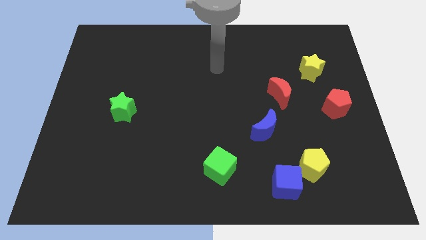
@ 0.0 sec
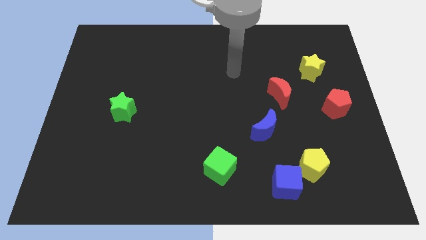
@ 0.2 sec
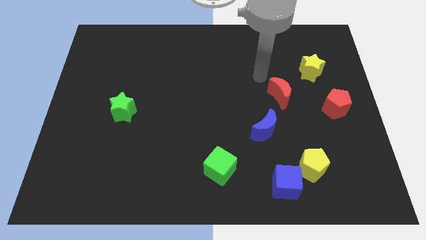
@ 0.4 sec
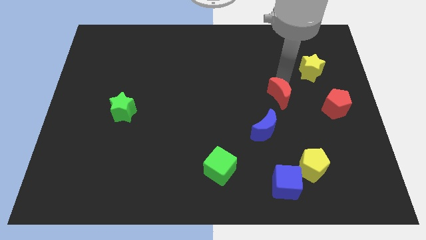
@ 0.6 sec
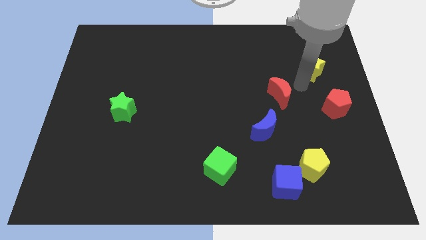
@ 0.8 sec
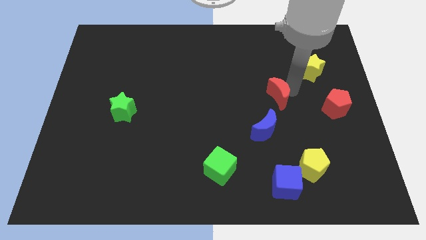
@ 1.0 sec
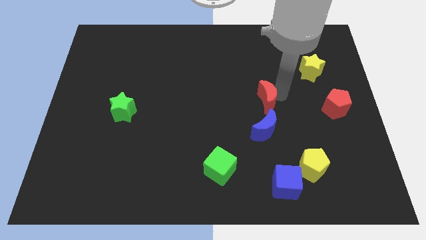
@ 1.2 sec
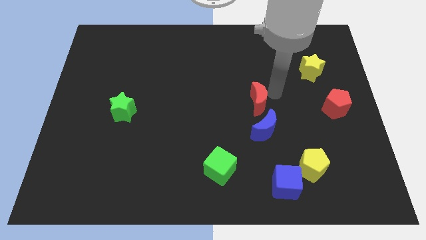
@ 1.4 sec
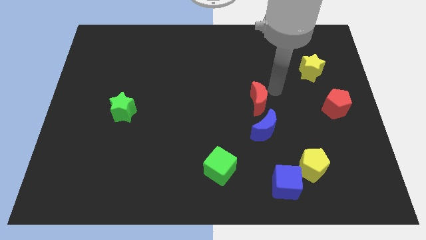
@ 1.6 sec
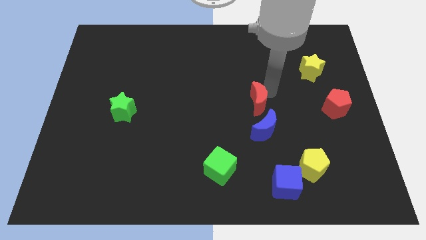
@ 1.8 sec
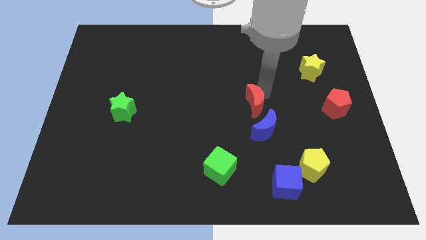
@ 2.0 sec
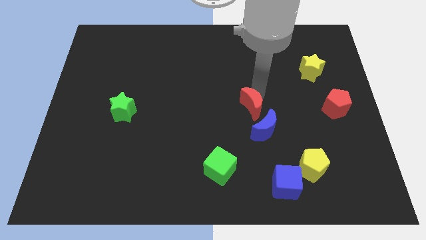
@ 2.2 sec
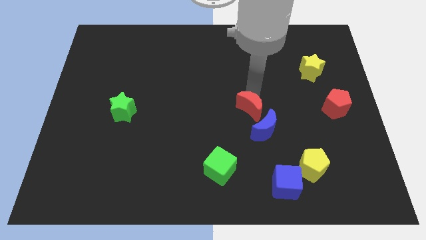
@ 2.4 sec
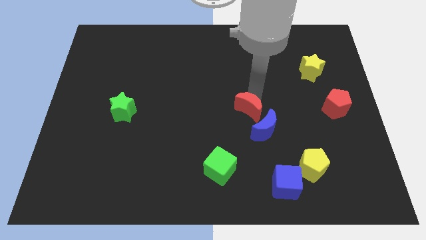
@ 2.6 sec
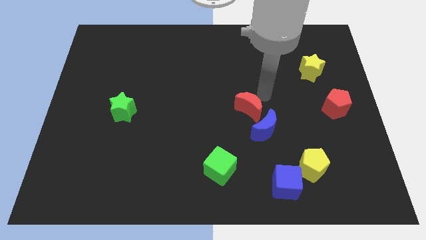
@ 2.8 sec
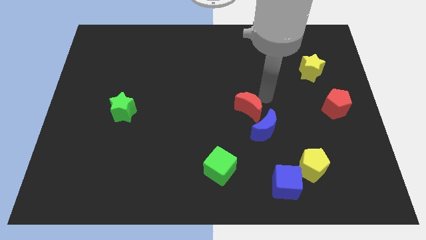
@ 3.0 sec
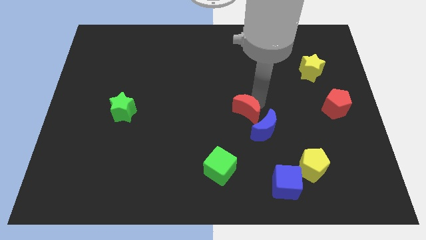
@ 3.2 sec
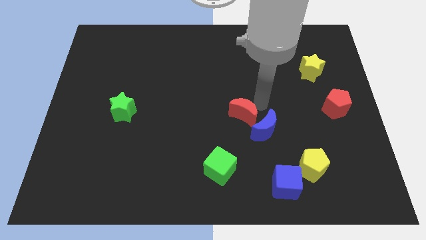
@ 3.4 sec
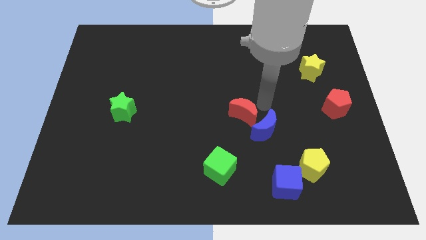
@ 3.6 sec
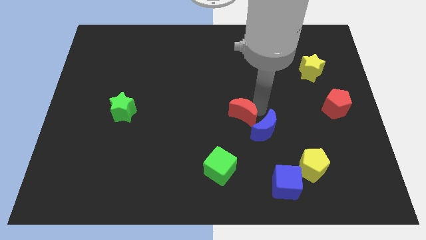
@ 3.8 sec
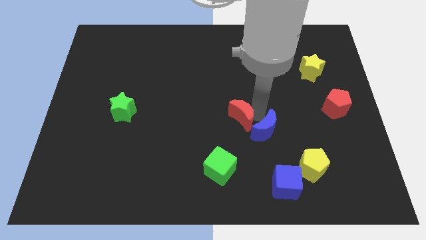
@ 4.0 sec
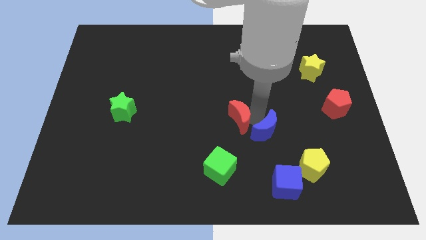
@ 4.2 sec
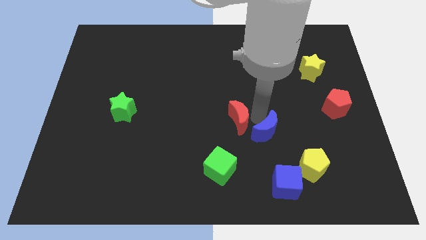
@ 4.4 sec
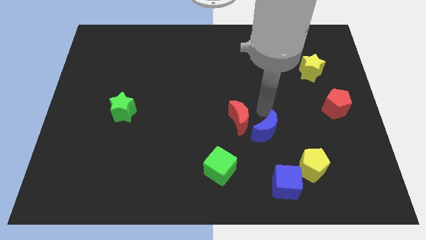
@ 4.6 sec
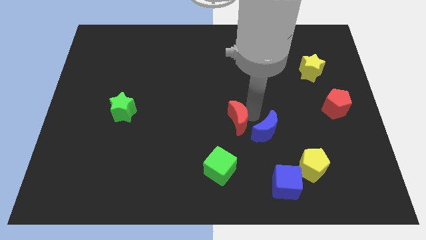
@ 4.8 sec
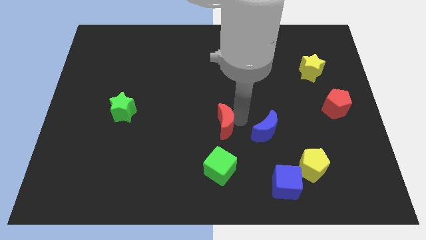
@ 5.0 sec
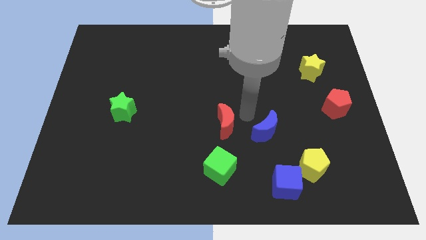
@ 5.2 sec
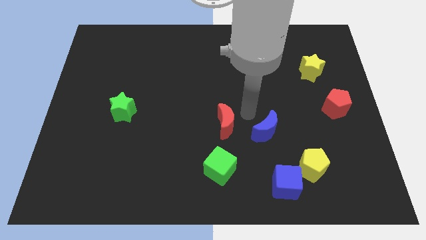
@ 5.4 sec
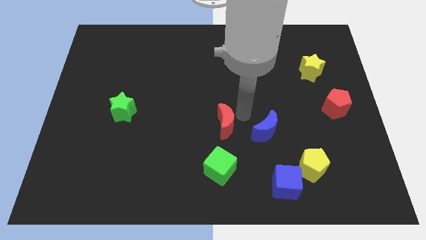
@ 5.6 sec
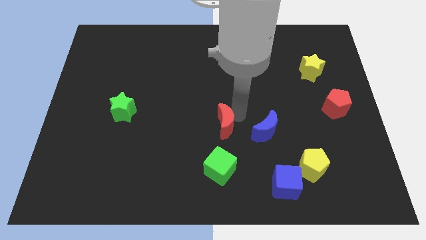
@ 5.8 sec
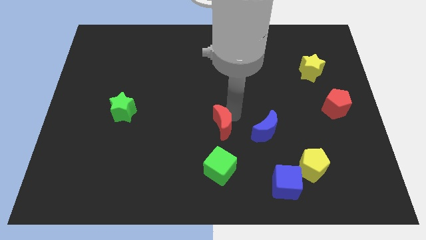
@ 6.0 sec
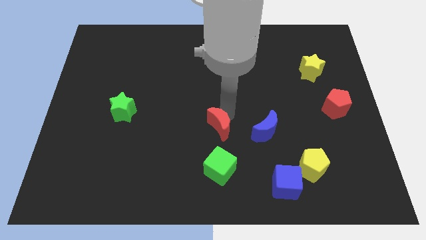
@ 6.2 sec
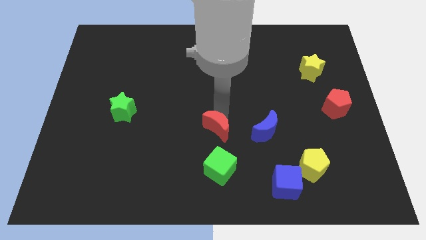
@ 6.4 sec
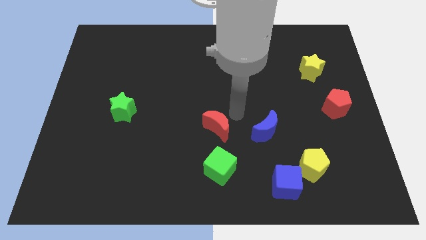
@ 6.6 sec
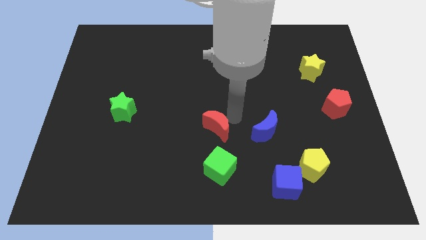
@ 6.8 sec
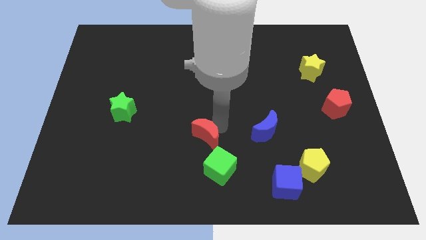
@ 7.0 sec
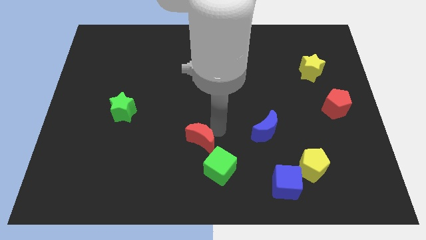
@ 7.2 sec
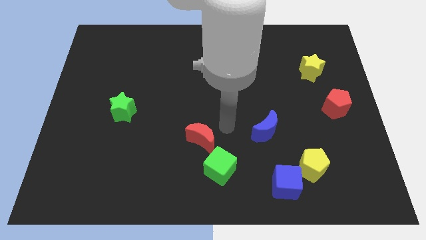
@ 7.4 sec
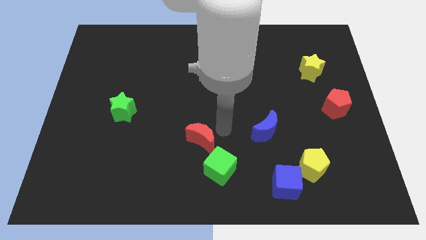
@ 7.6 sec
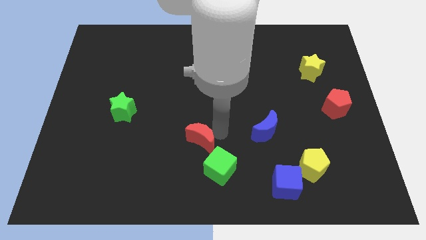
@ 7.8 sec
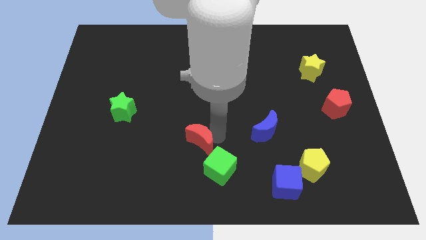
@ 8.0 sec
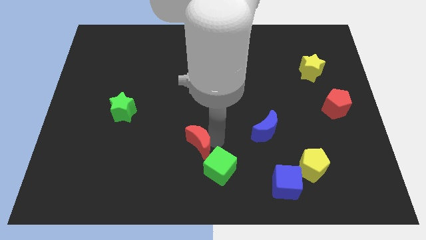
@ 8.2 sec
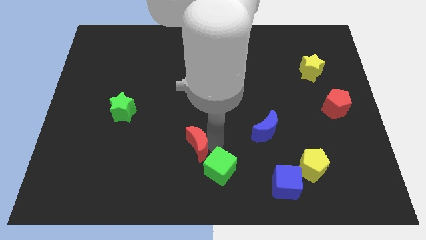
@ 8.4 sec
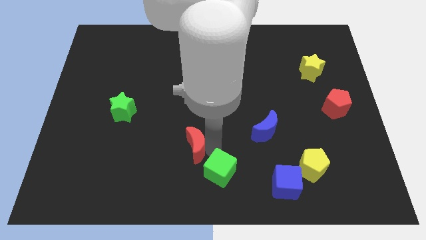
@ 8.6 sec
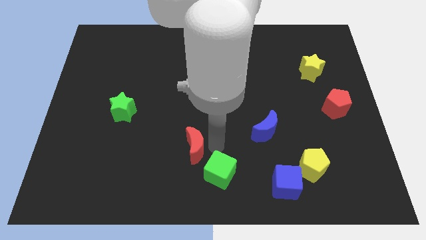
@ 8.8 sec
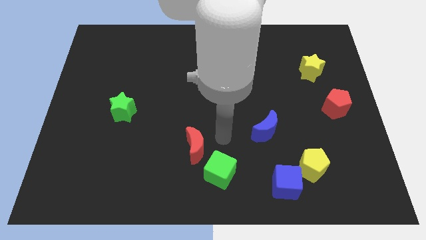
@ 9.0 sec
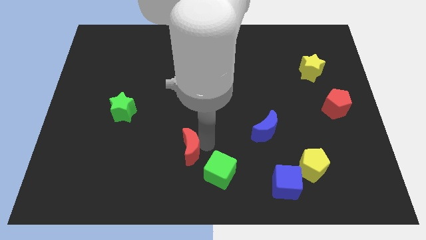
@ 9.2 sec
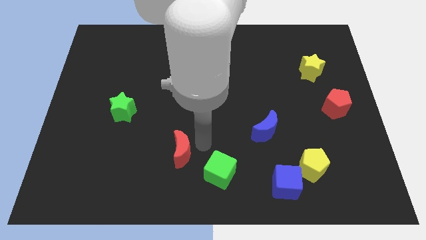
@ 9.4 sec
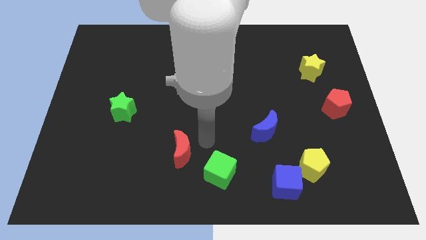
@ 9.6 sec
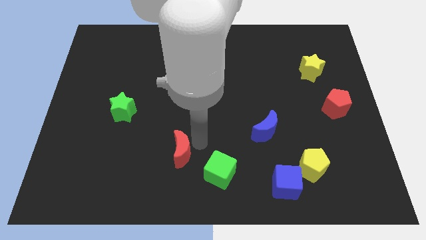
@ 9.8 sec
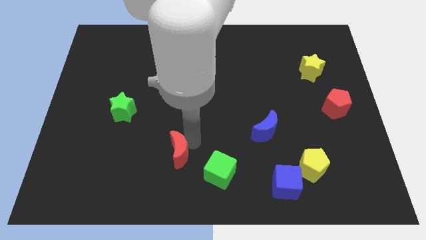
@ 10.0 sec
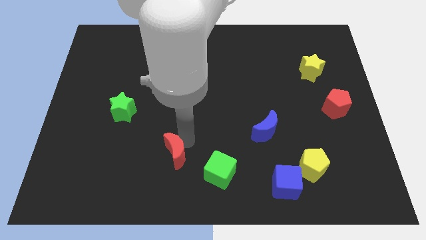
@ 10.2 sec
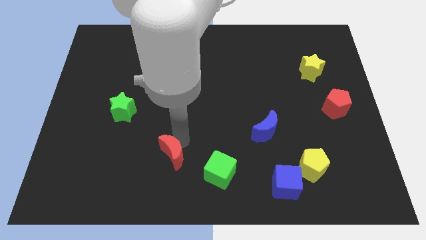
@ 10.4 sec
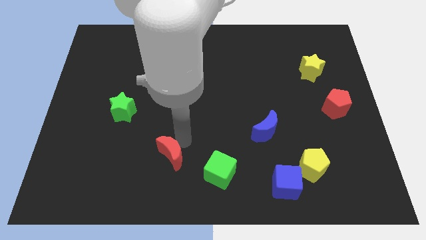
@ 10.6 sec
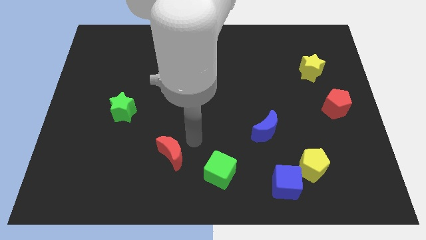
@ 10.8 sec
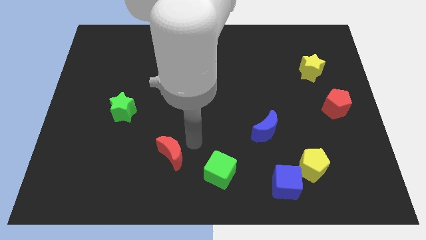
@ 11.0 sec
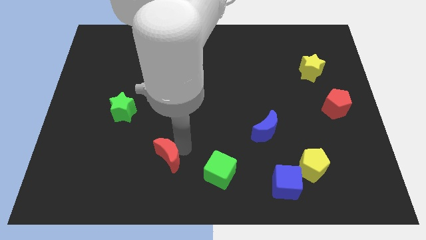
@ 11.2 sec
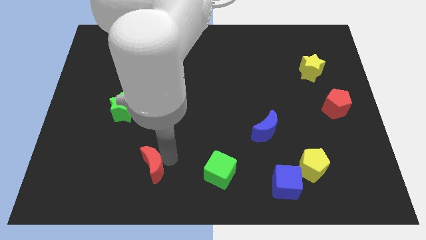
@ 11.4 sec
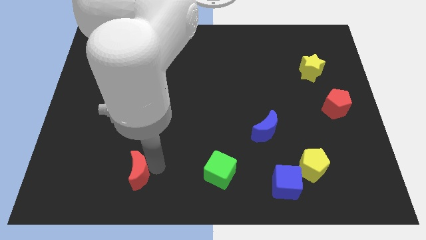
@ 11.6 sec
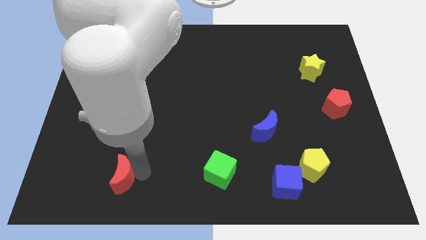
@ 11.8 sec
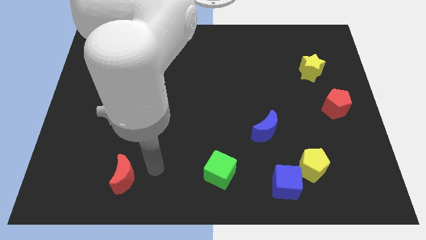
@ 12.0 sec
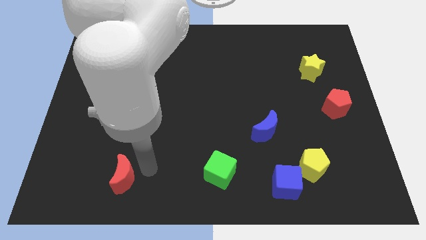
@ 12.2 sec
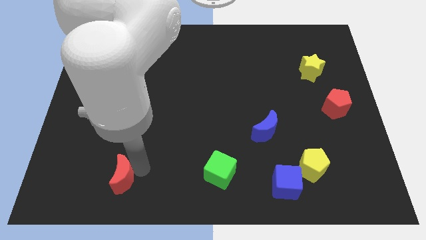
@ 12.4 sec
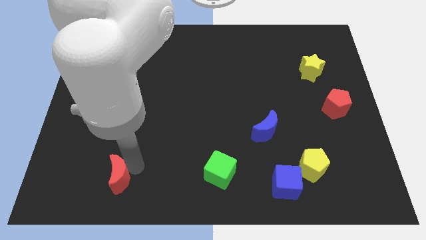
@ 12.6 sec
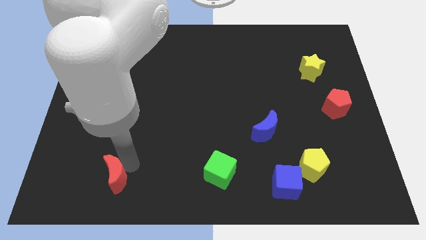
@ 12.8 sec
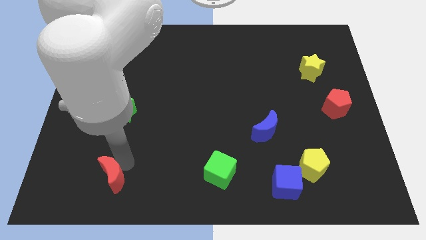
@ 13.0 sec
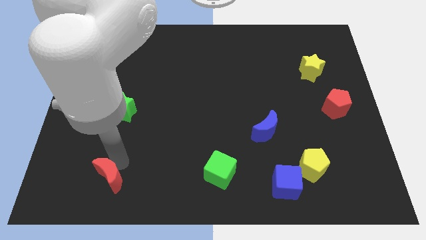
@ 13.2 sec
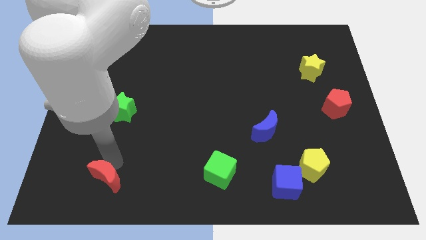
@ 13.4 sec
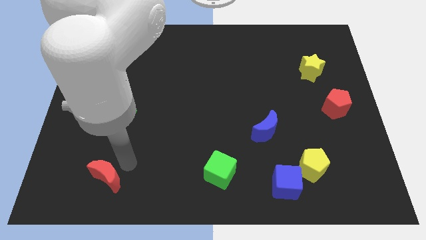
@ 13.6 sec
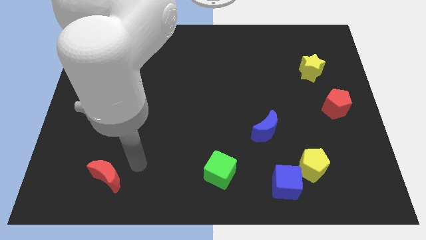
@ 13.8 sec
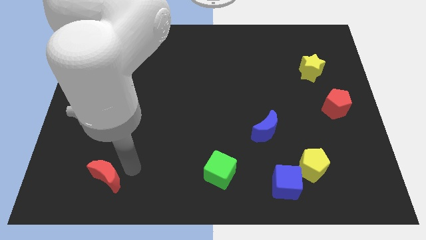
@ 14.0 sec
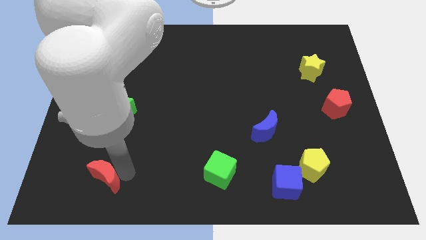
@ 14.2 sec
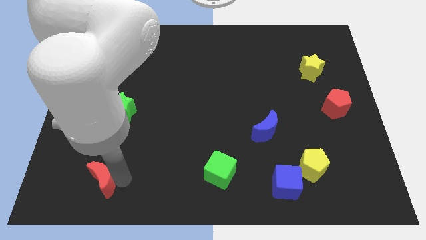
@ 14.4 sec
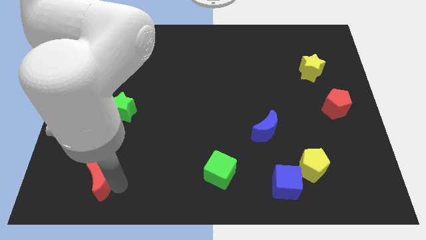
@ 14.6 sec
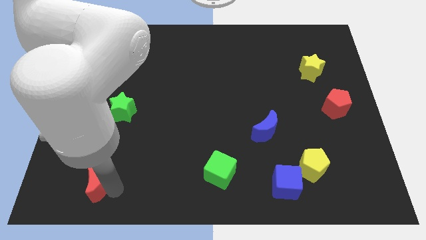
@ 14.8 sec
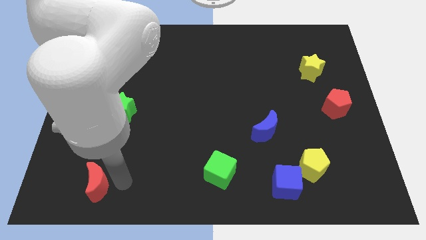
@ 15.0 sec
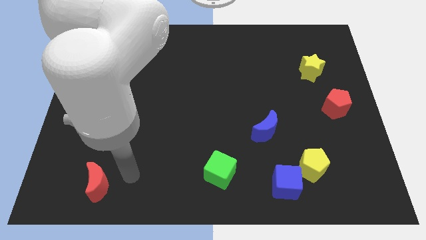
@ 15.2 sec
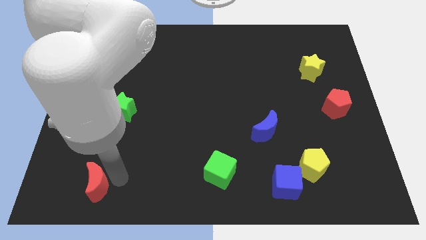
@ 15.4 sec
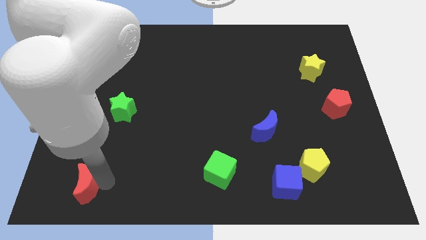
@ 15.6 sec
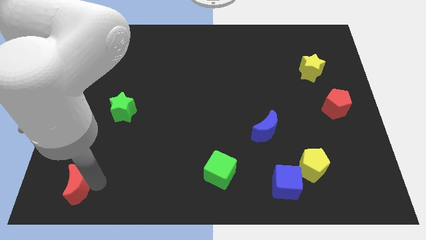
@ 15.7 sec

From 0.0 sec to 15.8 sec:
move the red moon to the bottom left of the board
